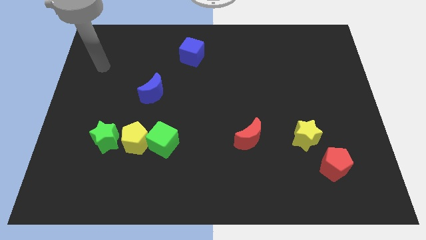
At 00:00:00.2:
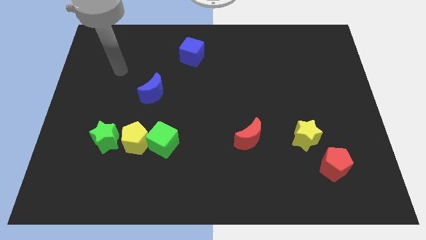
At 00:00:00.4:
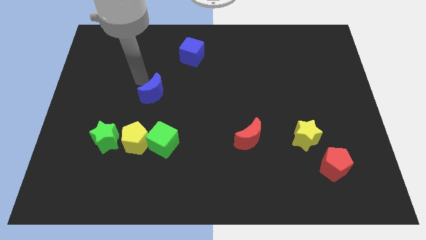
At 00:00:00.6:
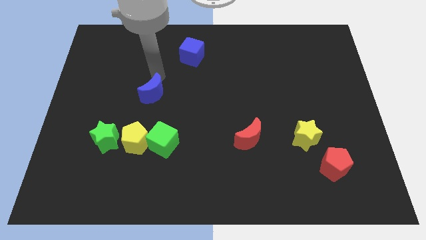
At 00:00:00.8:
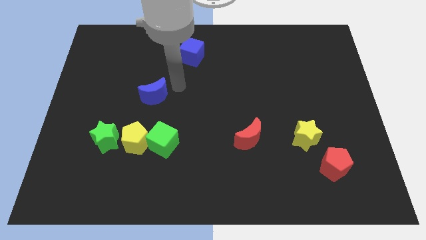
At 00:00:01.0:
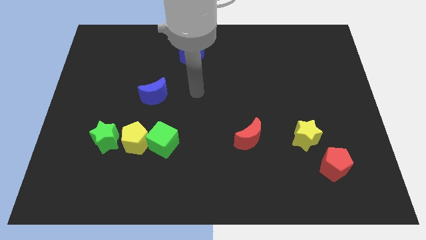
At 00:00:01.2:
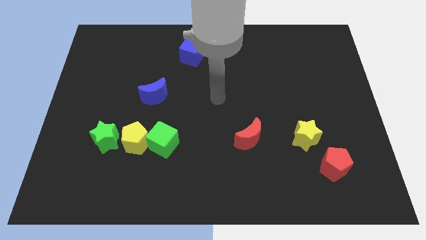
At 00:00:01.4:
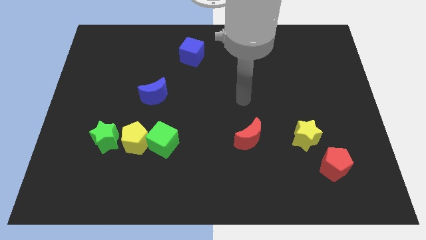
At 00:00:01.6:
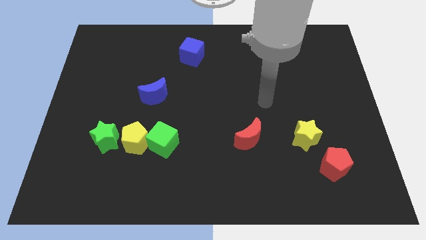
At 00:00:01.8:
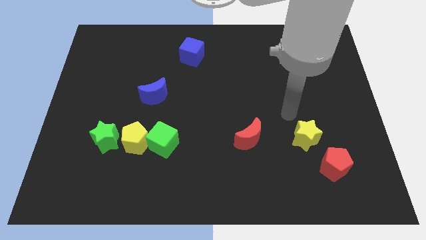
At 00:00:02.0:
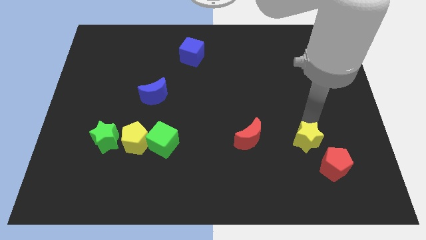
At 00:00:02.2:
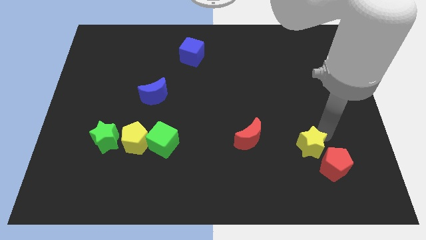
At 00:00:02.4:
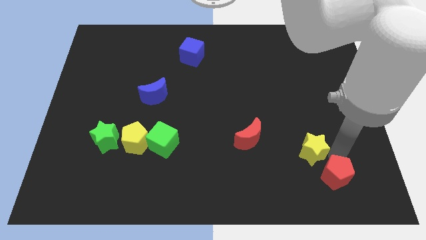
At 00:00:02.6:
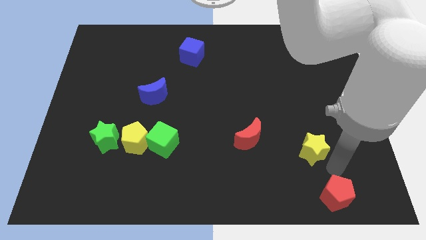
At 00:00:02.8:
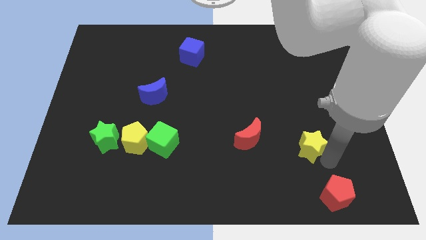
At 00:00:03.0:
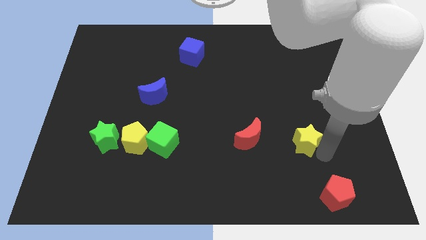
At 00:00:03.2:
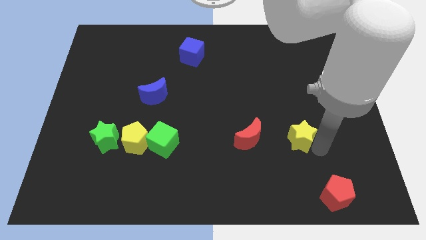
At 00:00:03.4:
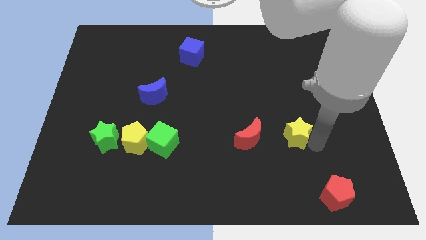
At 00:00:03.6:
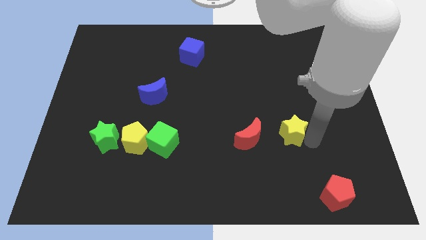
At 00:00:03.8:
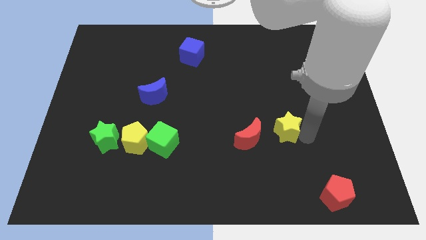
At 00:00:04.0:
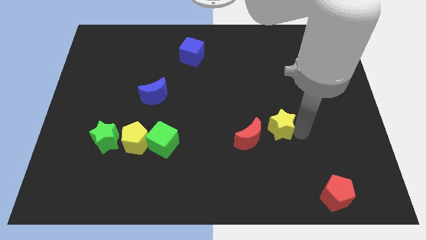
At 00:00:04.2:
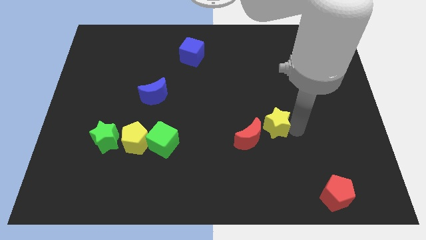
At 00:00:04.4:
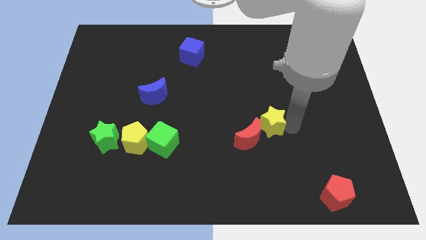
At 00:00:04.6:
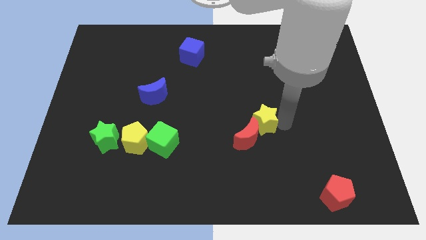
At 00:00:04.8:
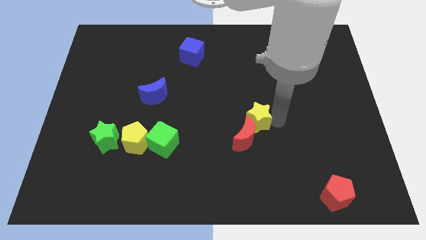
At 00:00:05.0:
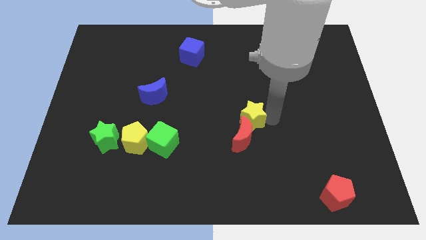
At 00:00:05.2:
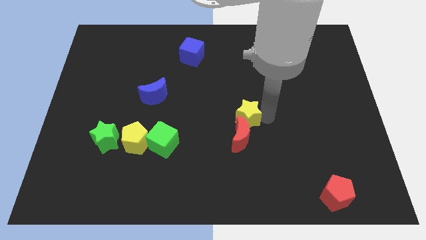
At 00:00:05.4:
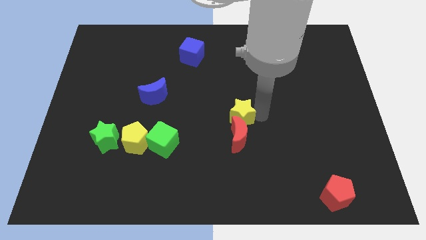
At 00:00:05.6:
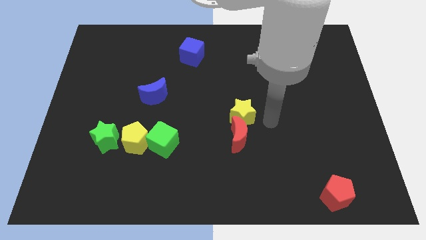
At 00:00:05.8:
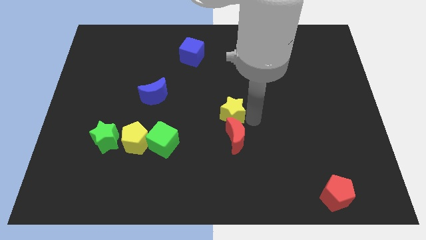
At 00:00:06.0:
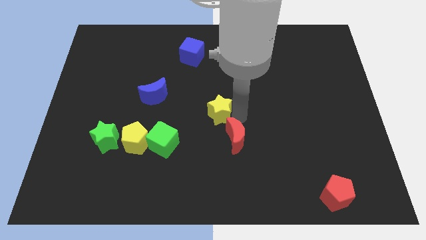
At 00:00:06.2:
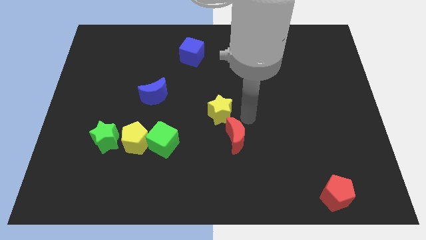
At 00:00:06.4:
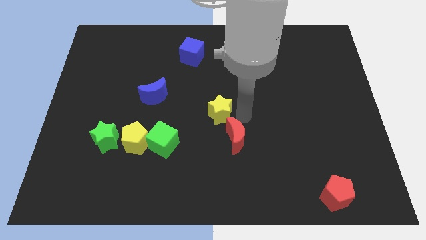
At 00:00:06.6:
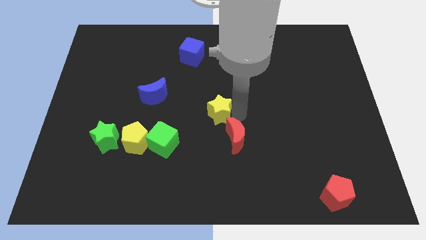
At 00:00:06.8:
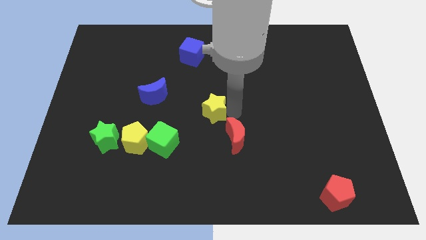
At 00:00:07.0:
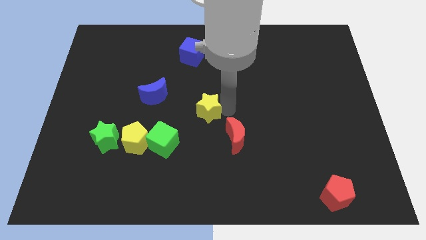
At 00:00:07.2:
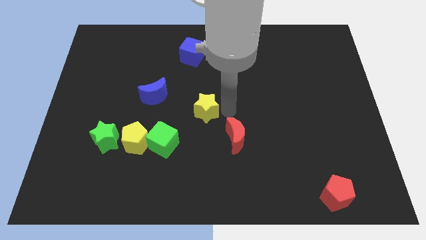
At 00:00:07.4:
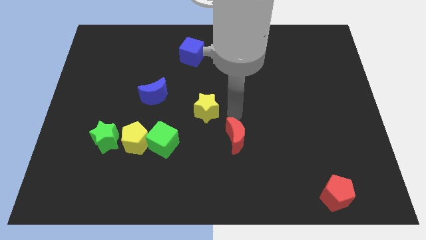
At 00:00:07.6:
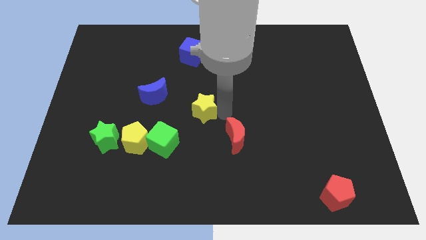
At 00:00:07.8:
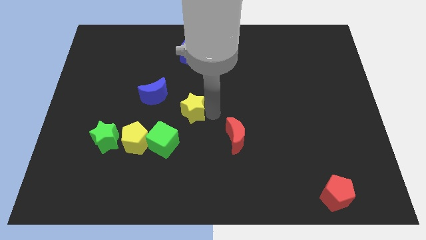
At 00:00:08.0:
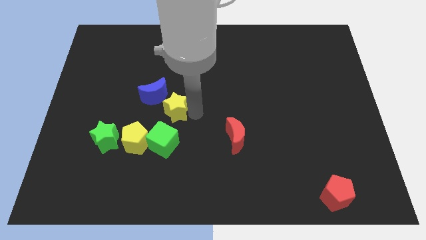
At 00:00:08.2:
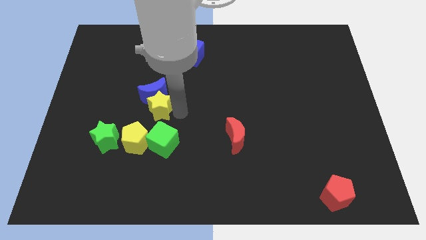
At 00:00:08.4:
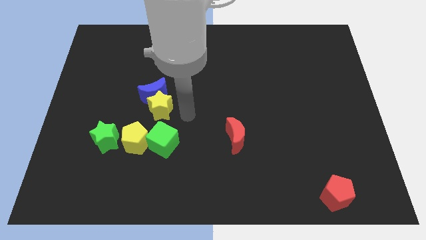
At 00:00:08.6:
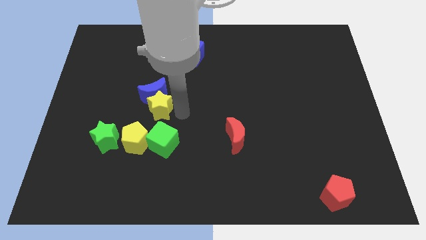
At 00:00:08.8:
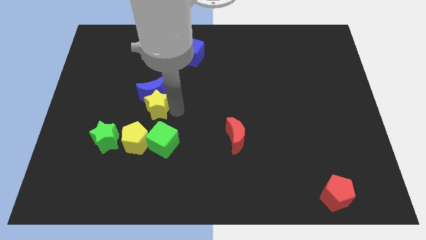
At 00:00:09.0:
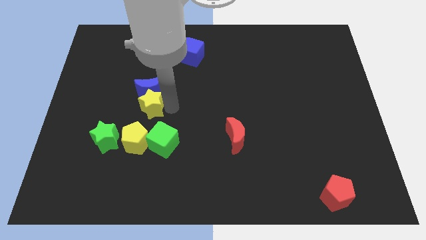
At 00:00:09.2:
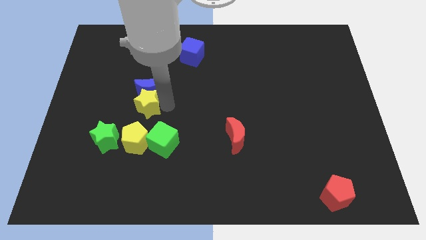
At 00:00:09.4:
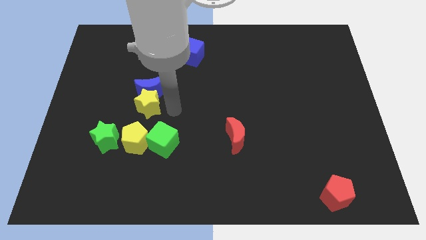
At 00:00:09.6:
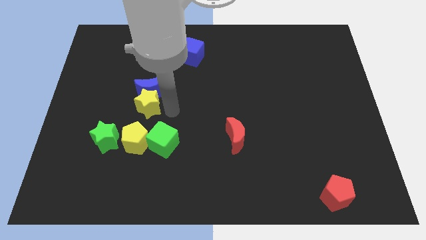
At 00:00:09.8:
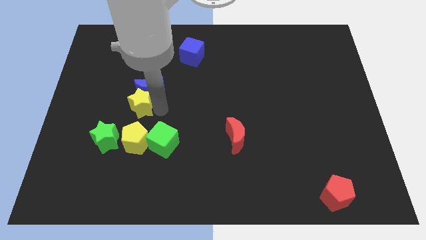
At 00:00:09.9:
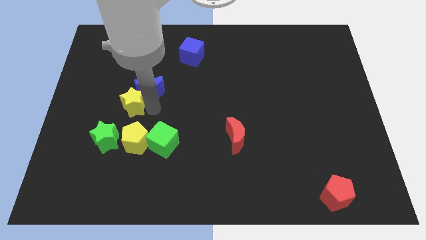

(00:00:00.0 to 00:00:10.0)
move the yellow star to the top side of the green star

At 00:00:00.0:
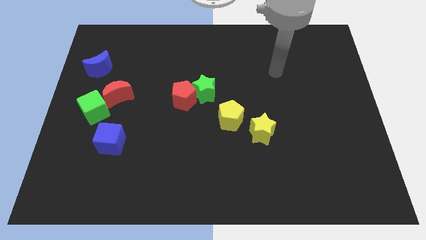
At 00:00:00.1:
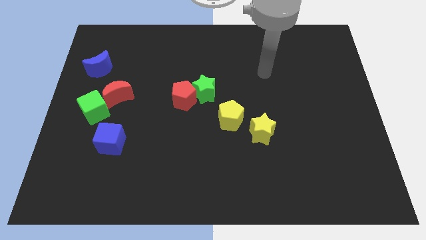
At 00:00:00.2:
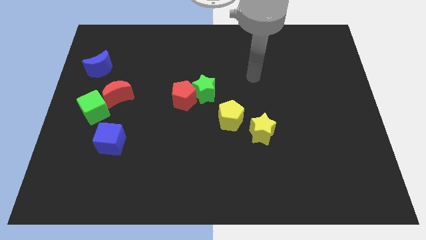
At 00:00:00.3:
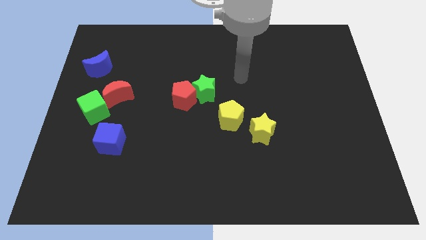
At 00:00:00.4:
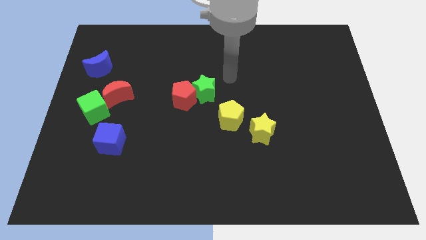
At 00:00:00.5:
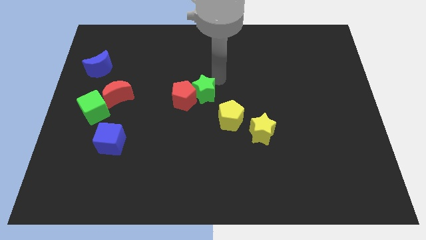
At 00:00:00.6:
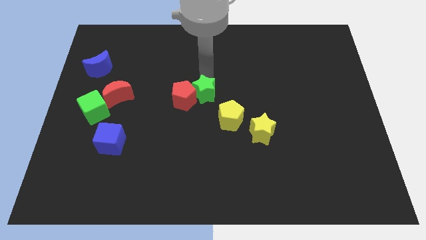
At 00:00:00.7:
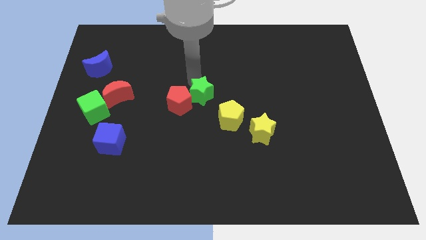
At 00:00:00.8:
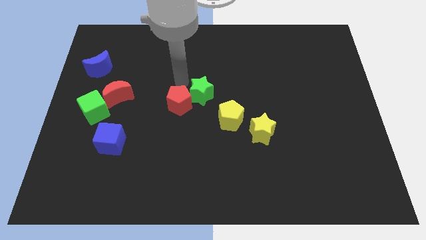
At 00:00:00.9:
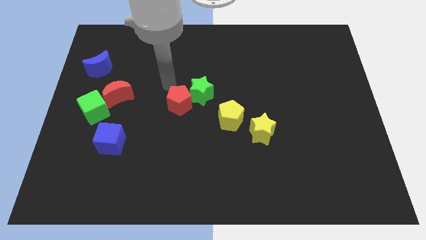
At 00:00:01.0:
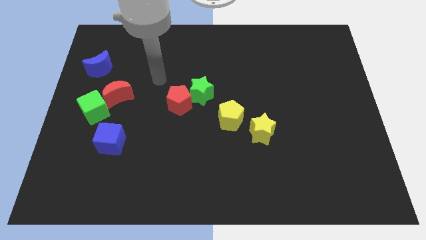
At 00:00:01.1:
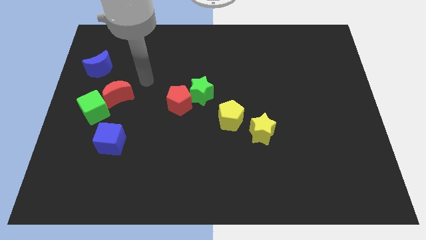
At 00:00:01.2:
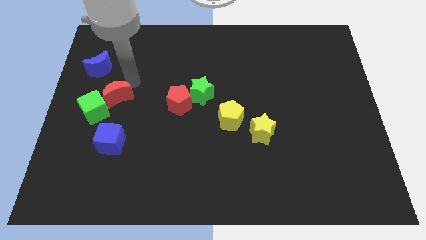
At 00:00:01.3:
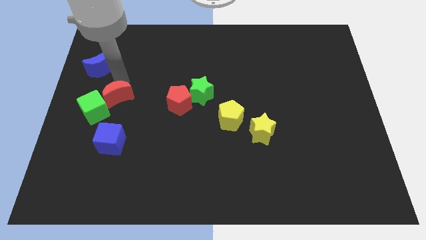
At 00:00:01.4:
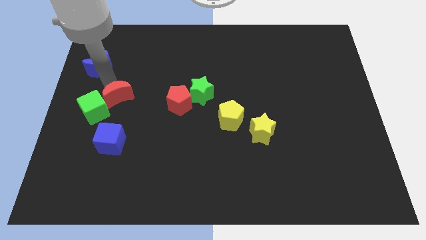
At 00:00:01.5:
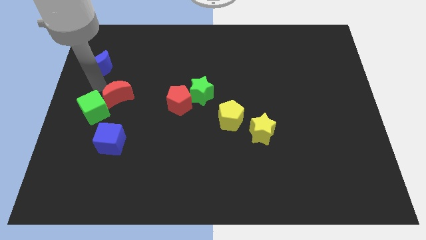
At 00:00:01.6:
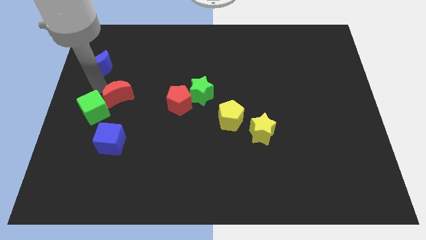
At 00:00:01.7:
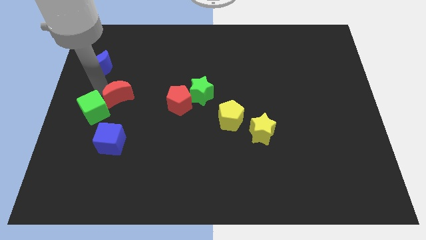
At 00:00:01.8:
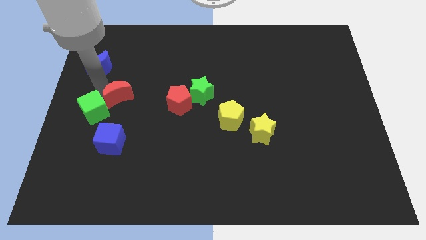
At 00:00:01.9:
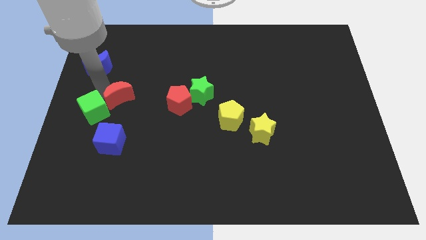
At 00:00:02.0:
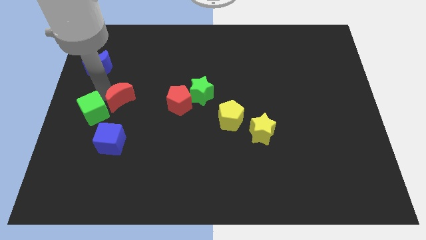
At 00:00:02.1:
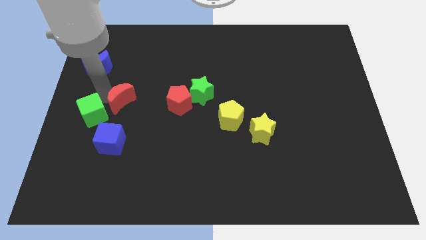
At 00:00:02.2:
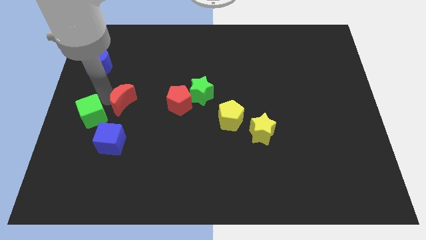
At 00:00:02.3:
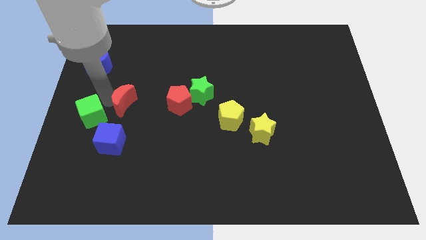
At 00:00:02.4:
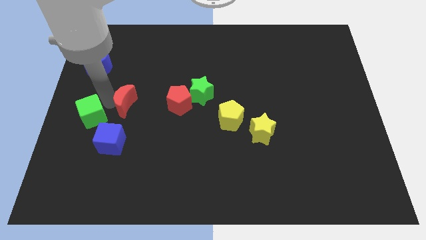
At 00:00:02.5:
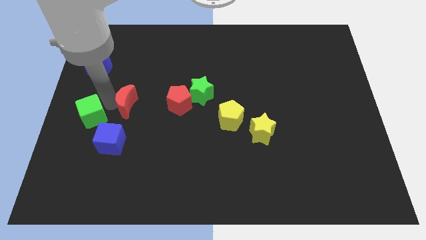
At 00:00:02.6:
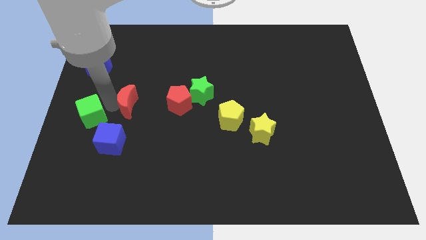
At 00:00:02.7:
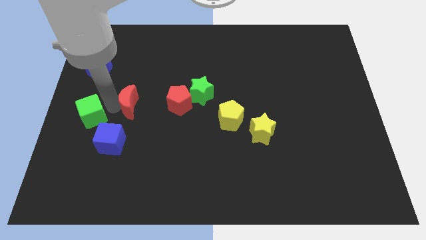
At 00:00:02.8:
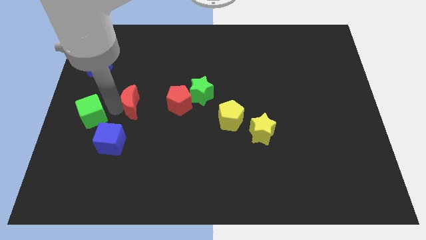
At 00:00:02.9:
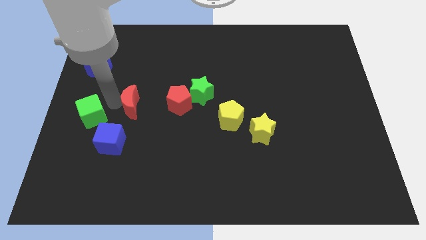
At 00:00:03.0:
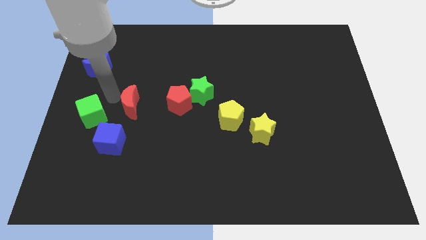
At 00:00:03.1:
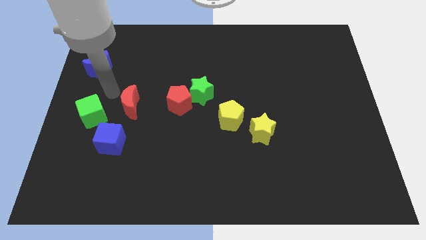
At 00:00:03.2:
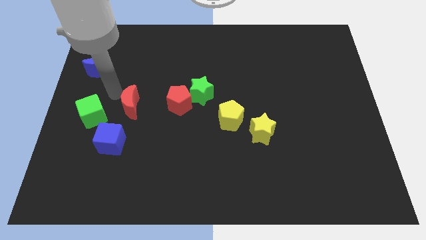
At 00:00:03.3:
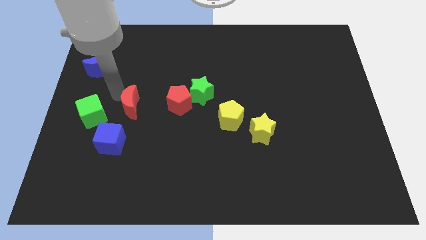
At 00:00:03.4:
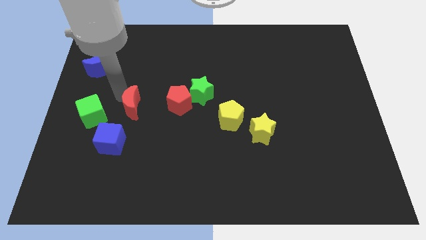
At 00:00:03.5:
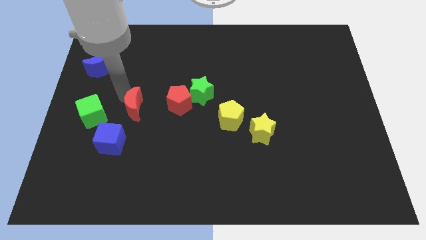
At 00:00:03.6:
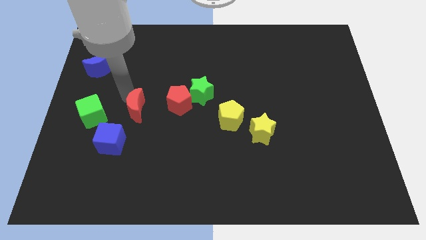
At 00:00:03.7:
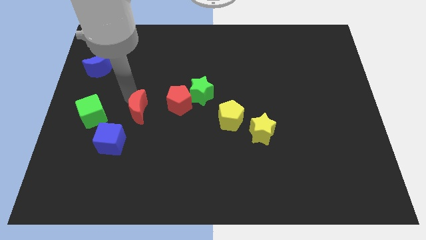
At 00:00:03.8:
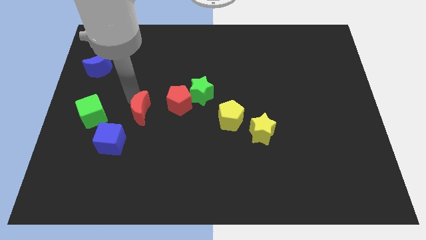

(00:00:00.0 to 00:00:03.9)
slide the red moon diagonally down and to the left of the red pentagon
